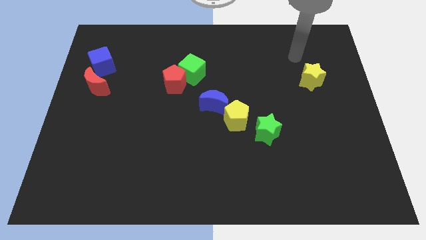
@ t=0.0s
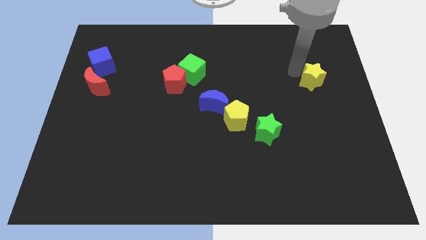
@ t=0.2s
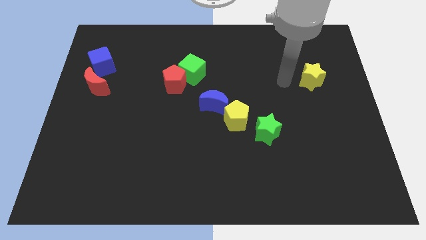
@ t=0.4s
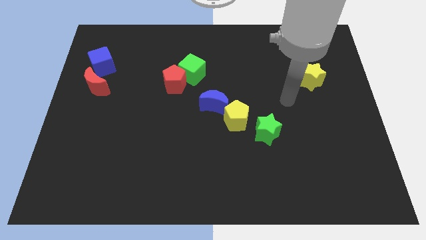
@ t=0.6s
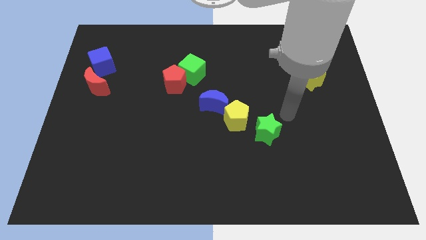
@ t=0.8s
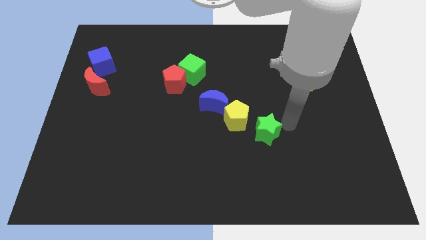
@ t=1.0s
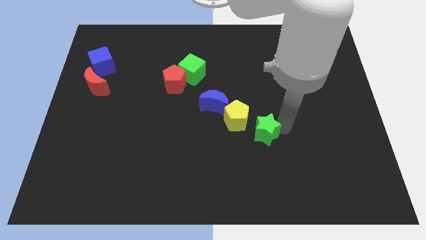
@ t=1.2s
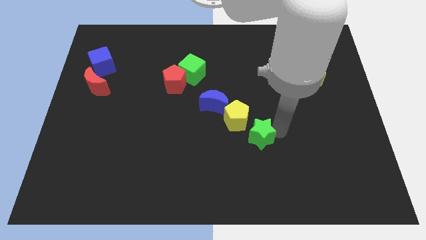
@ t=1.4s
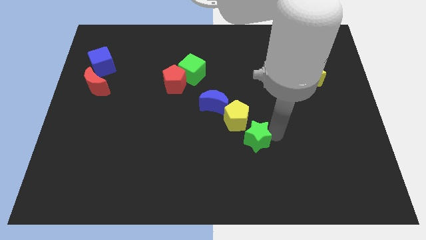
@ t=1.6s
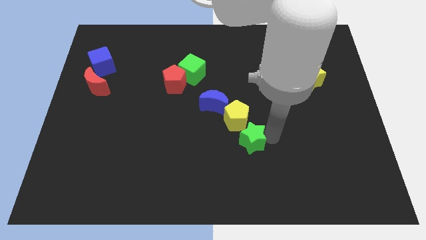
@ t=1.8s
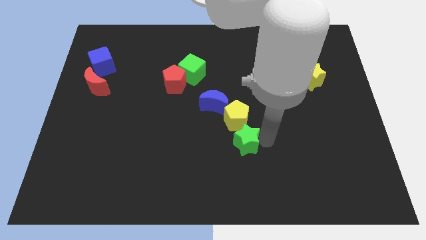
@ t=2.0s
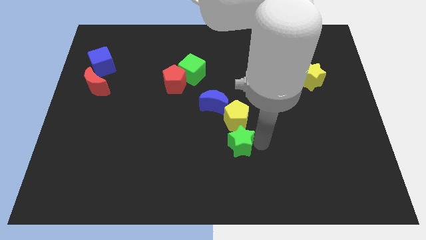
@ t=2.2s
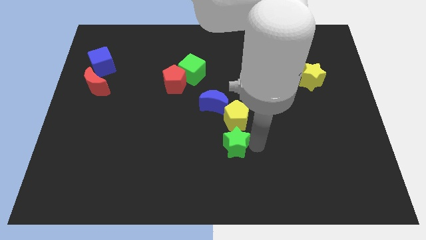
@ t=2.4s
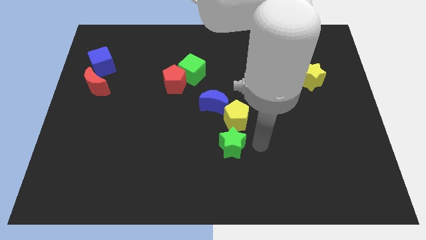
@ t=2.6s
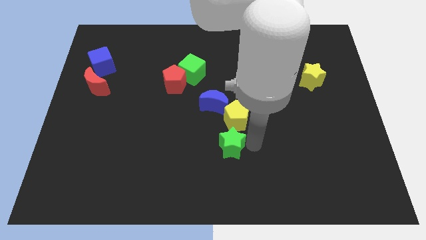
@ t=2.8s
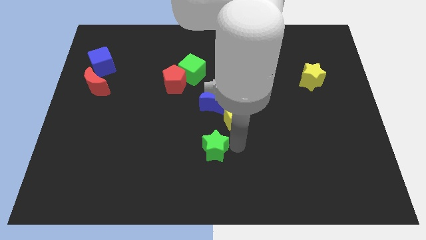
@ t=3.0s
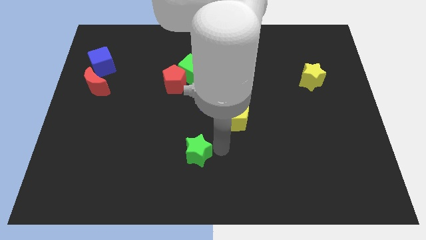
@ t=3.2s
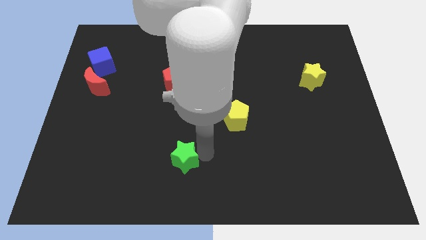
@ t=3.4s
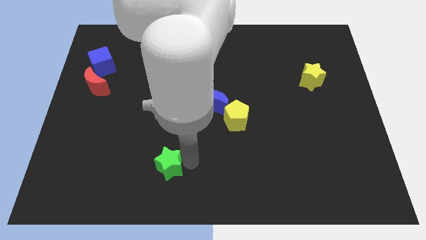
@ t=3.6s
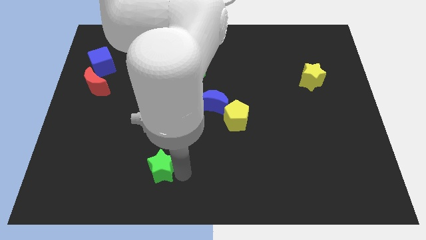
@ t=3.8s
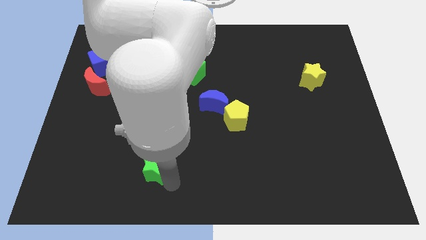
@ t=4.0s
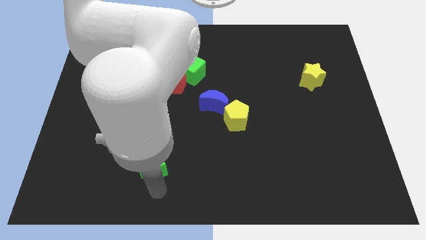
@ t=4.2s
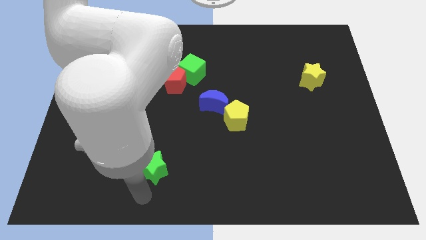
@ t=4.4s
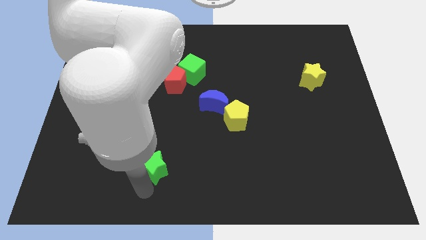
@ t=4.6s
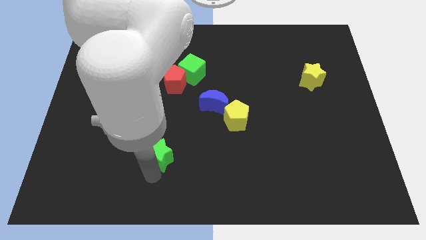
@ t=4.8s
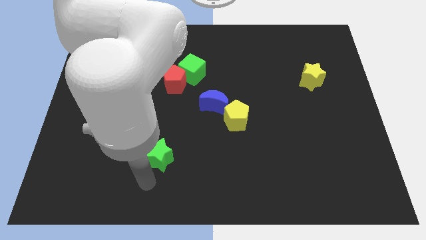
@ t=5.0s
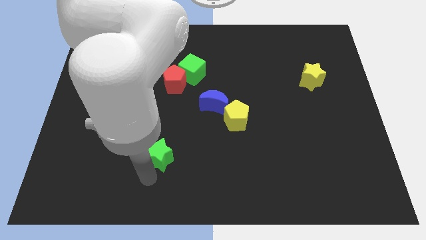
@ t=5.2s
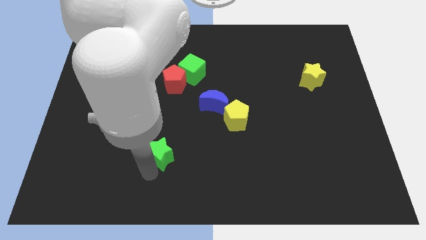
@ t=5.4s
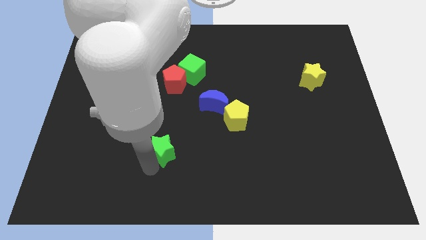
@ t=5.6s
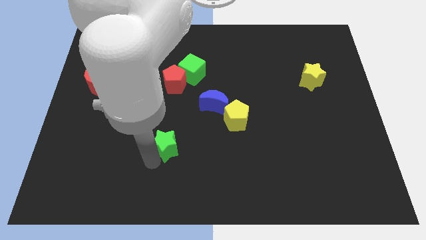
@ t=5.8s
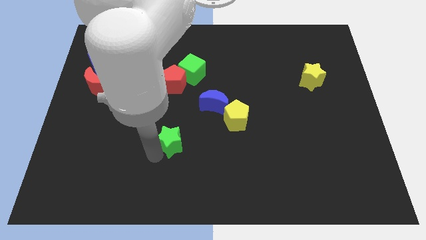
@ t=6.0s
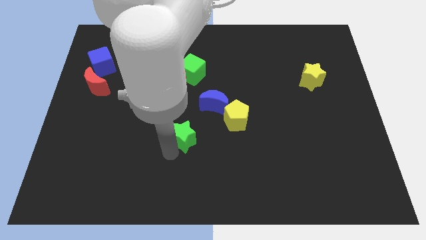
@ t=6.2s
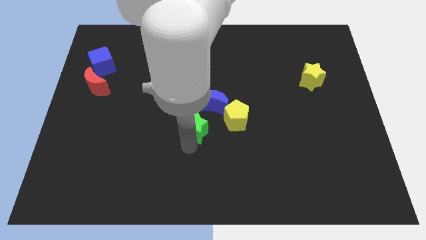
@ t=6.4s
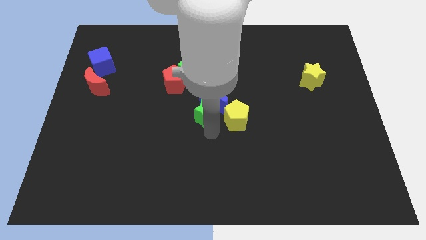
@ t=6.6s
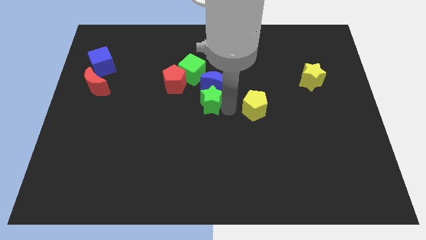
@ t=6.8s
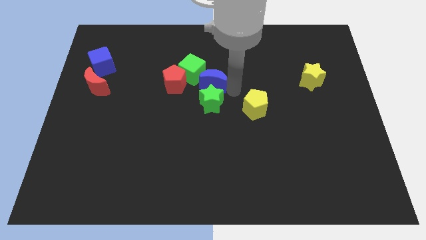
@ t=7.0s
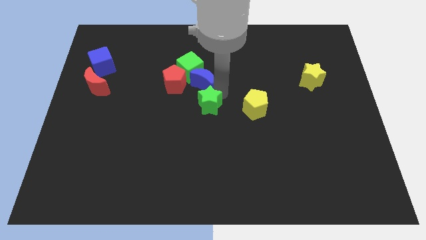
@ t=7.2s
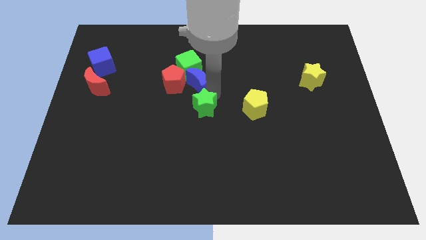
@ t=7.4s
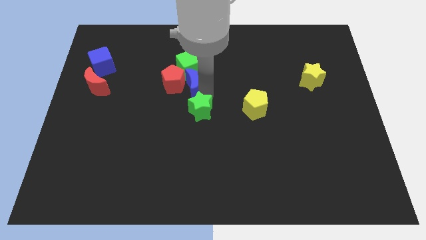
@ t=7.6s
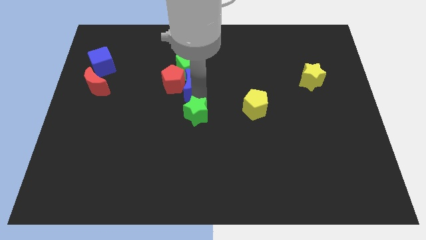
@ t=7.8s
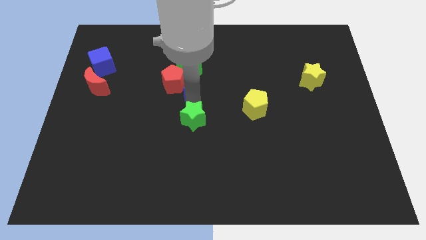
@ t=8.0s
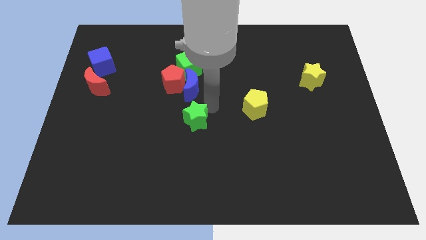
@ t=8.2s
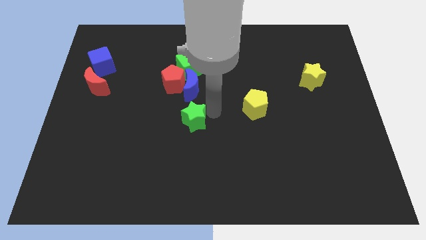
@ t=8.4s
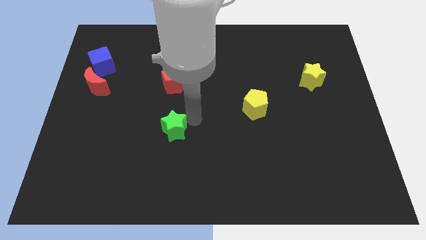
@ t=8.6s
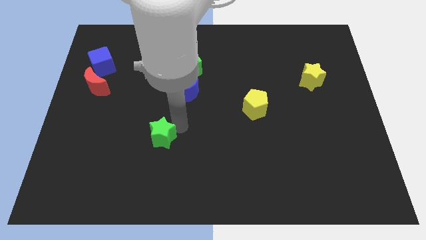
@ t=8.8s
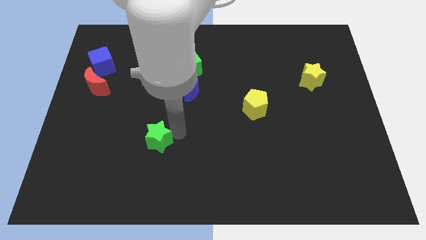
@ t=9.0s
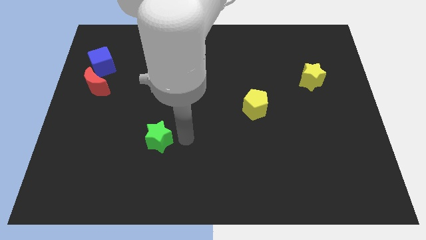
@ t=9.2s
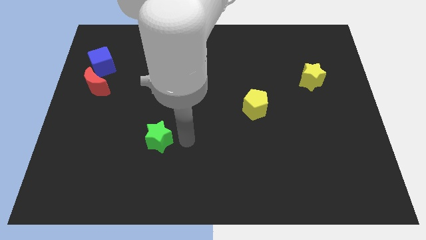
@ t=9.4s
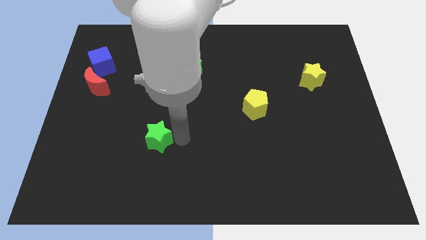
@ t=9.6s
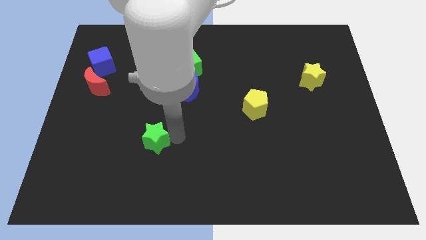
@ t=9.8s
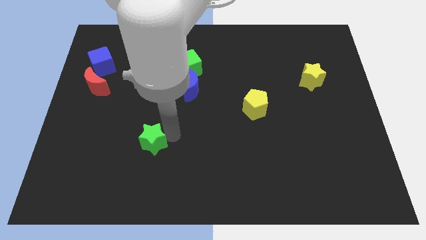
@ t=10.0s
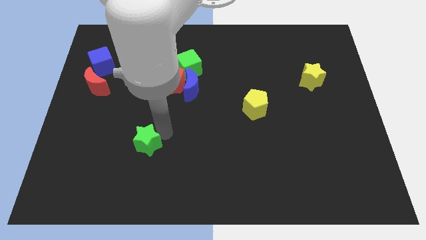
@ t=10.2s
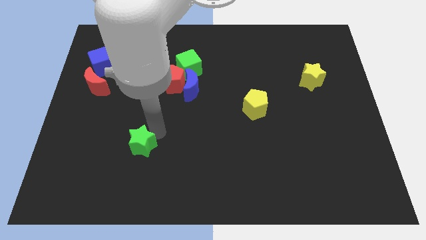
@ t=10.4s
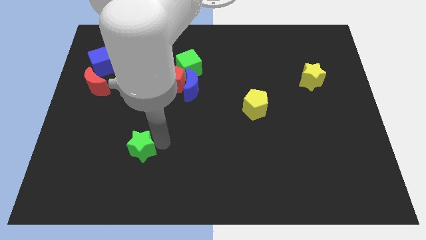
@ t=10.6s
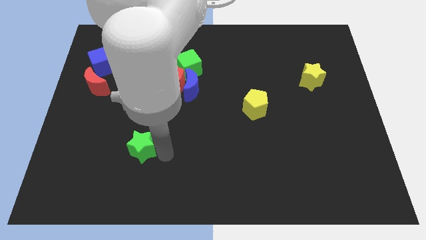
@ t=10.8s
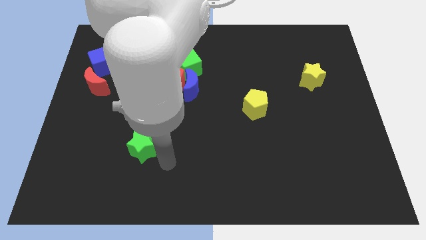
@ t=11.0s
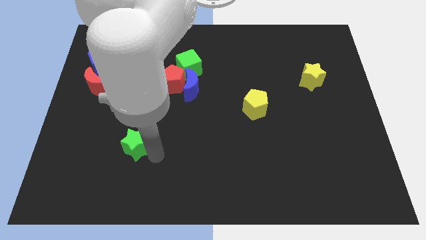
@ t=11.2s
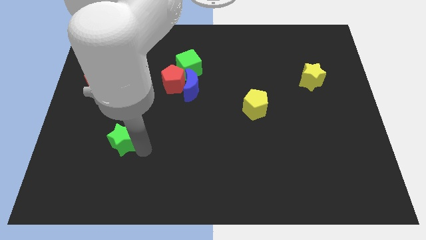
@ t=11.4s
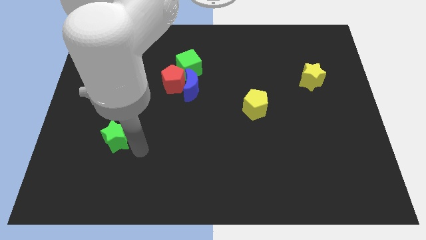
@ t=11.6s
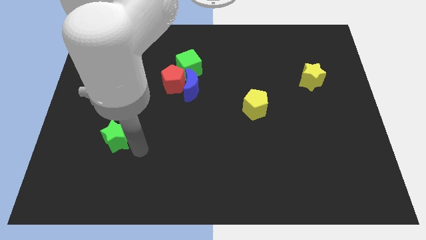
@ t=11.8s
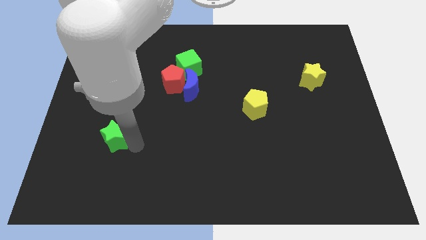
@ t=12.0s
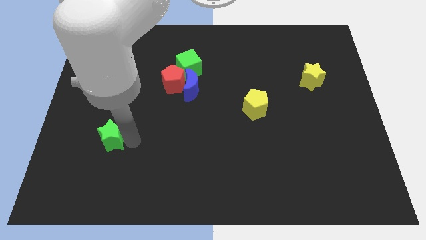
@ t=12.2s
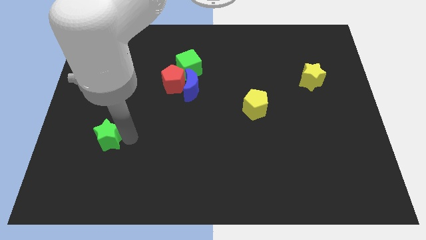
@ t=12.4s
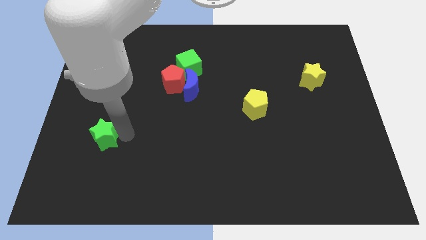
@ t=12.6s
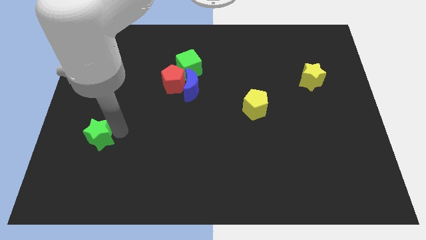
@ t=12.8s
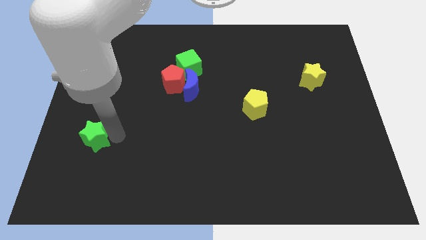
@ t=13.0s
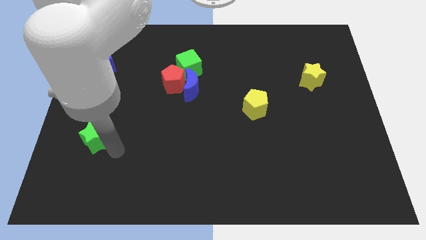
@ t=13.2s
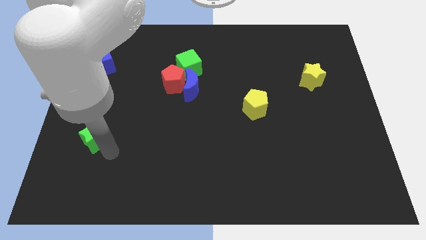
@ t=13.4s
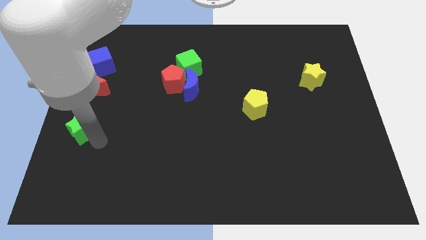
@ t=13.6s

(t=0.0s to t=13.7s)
slide the green star to the center left
